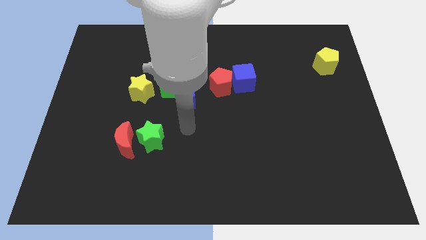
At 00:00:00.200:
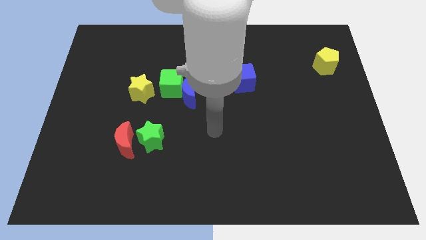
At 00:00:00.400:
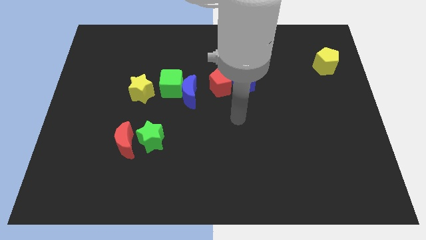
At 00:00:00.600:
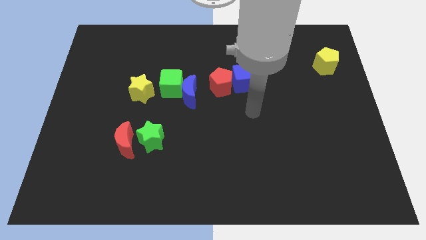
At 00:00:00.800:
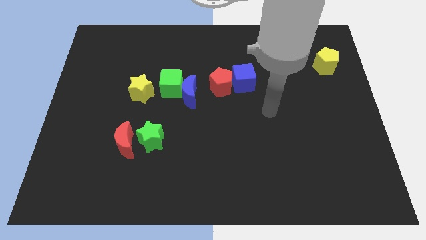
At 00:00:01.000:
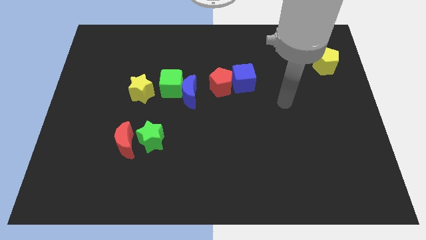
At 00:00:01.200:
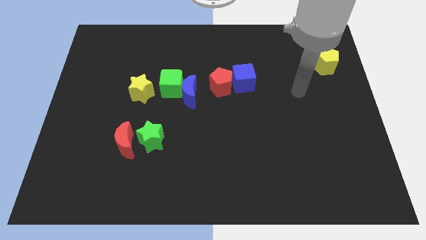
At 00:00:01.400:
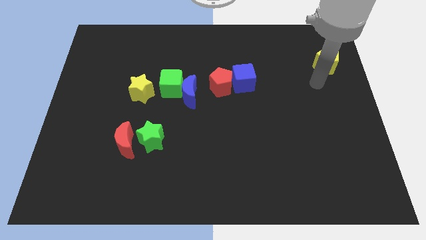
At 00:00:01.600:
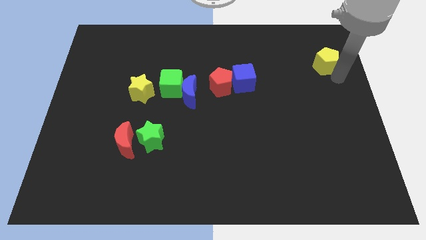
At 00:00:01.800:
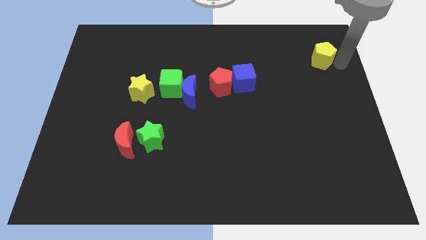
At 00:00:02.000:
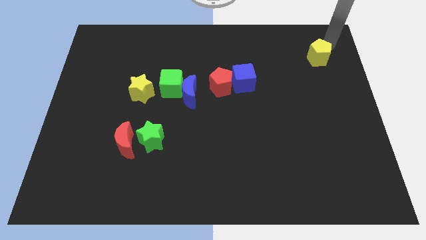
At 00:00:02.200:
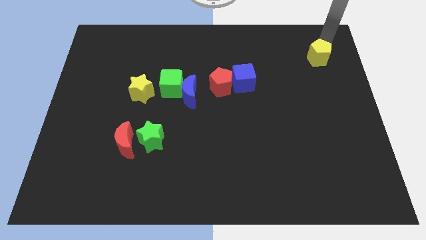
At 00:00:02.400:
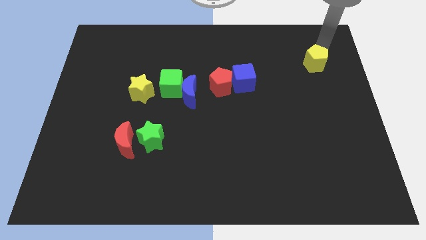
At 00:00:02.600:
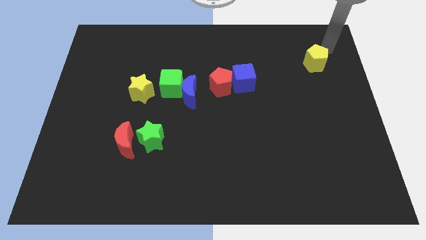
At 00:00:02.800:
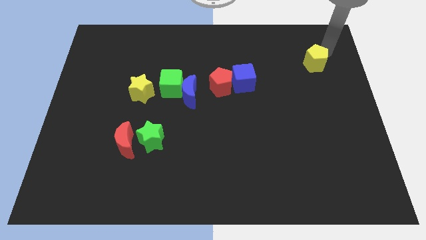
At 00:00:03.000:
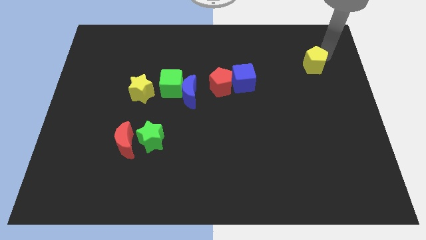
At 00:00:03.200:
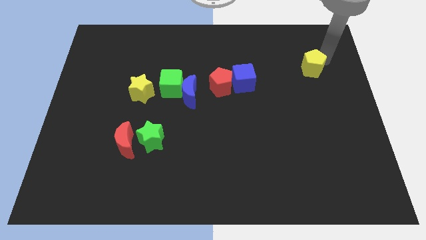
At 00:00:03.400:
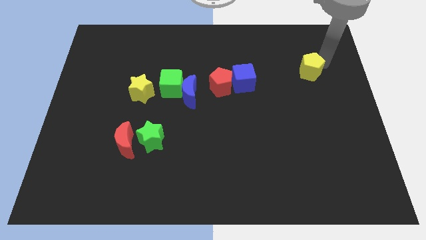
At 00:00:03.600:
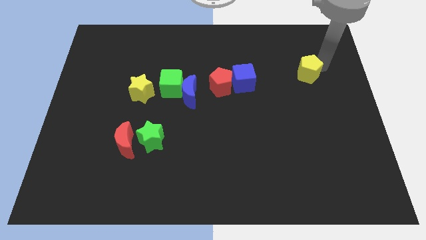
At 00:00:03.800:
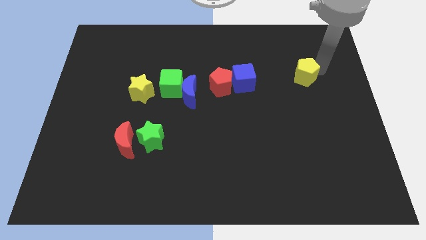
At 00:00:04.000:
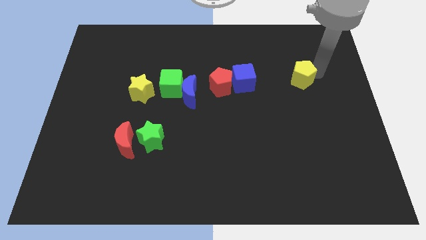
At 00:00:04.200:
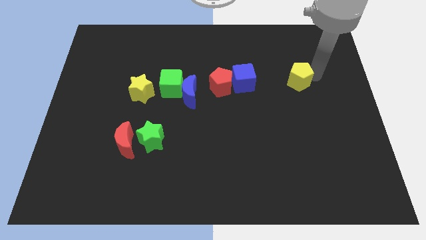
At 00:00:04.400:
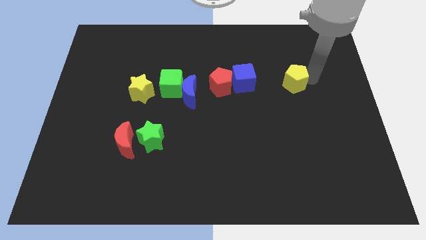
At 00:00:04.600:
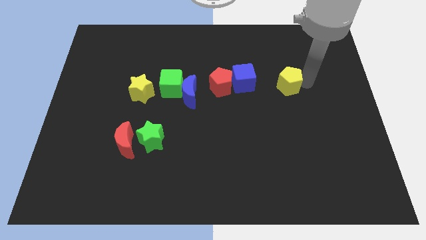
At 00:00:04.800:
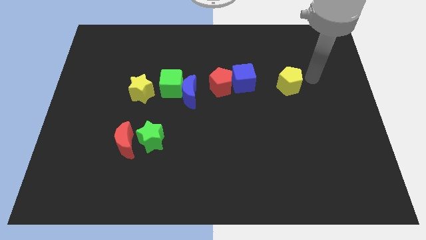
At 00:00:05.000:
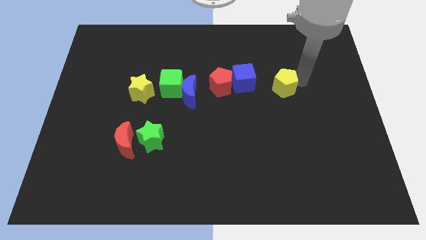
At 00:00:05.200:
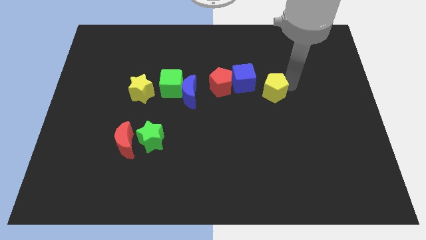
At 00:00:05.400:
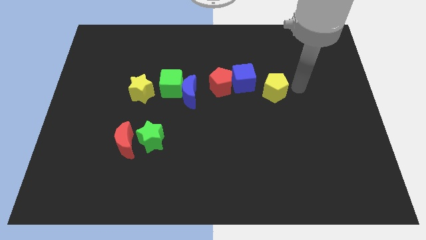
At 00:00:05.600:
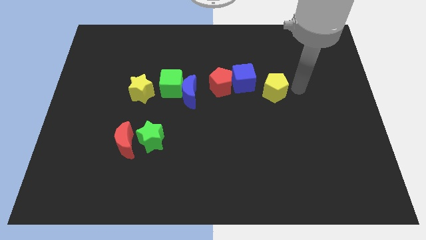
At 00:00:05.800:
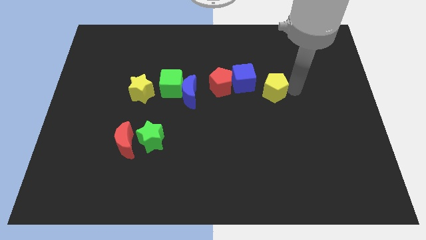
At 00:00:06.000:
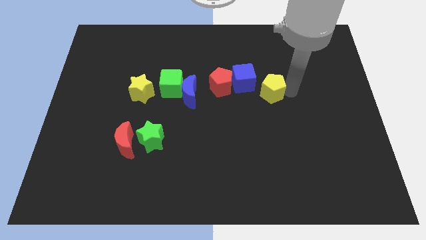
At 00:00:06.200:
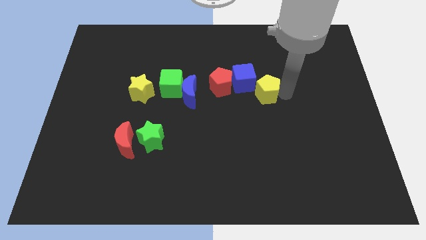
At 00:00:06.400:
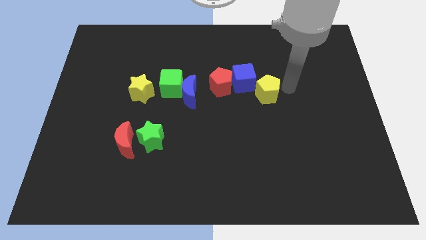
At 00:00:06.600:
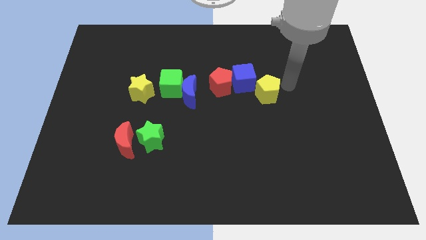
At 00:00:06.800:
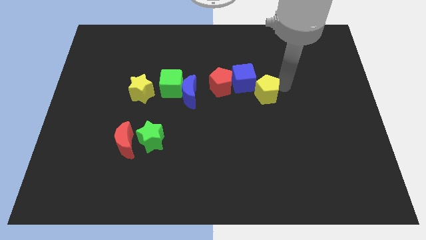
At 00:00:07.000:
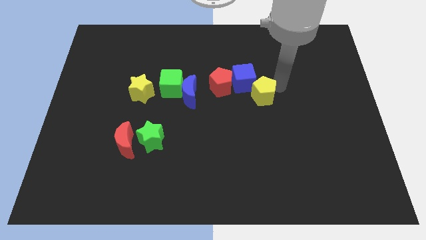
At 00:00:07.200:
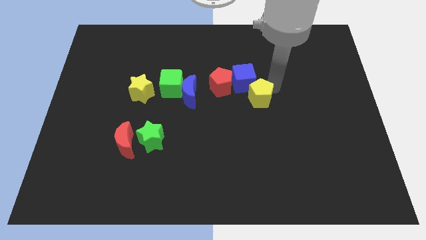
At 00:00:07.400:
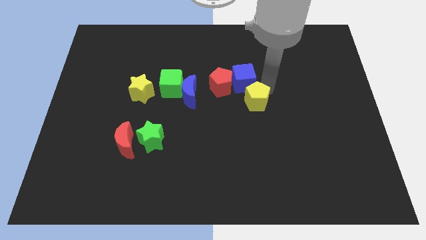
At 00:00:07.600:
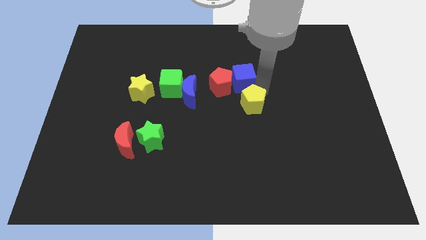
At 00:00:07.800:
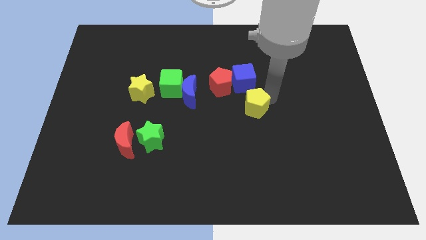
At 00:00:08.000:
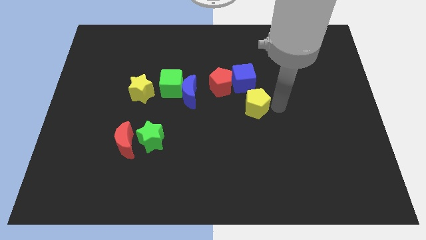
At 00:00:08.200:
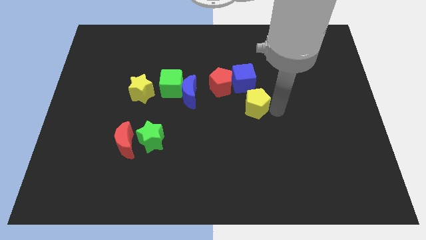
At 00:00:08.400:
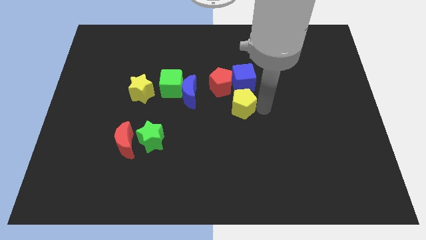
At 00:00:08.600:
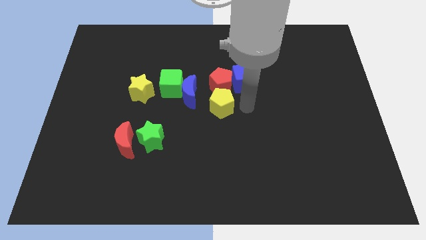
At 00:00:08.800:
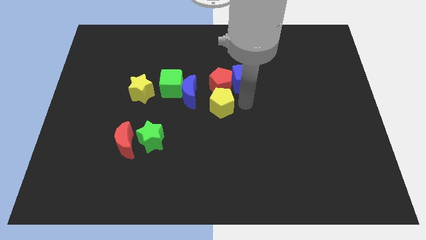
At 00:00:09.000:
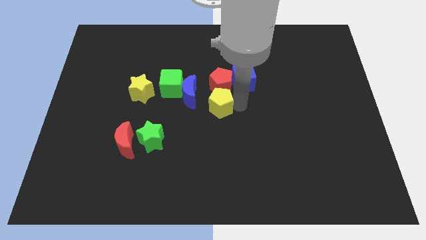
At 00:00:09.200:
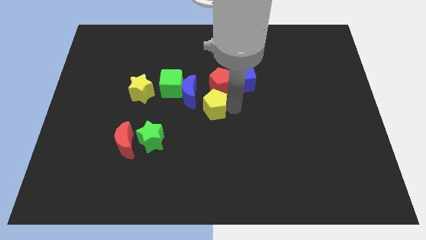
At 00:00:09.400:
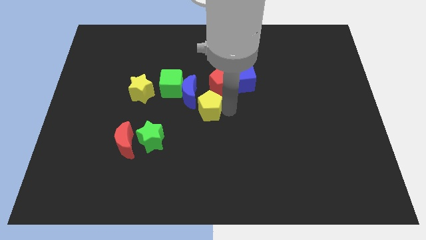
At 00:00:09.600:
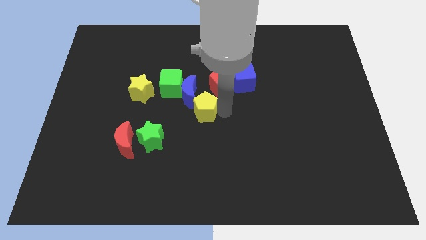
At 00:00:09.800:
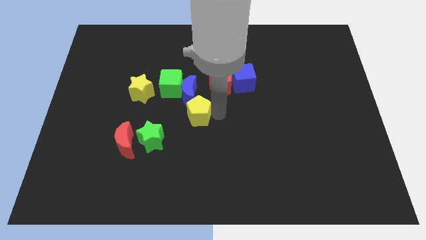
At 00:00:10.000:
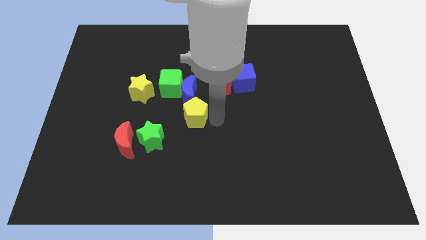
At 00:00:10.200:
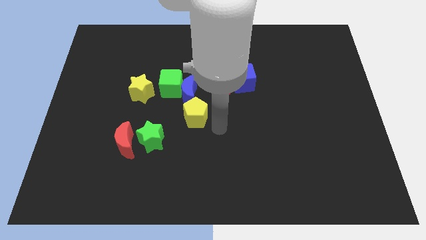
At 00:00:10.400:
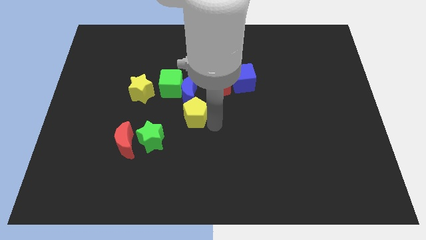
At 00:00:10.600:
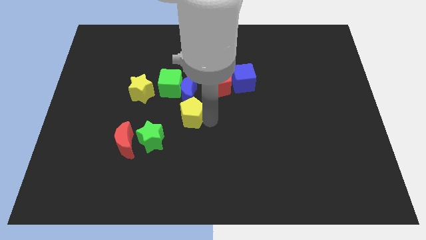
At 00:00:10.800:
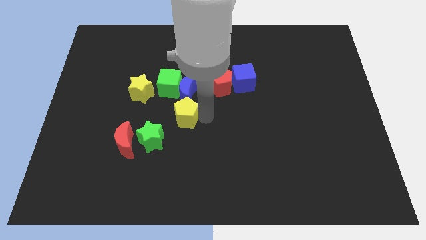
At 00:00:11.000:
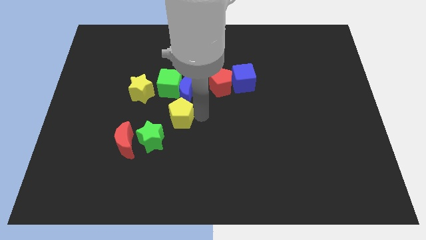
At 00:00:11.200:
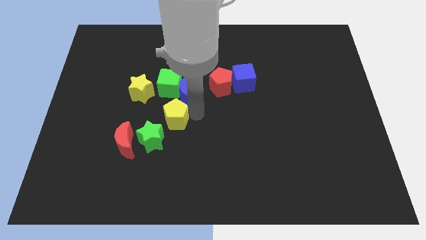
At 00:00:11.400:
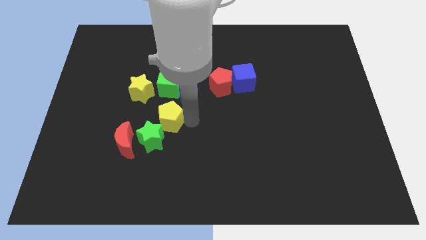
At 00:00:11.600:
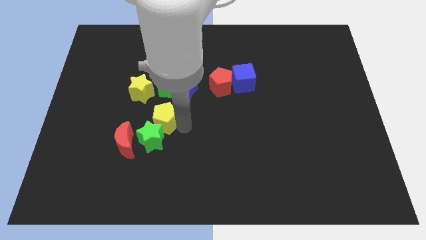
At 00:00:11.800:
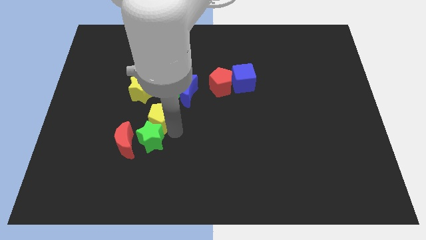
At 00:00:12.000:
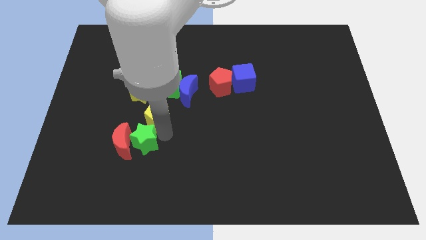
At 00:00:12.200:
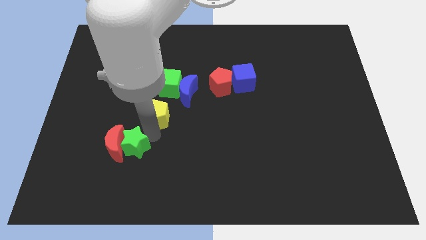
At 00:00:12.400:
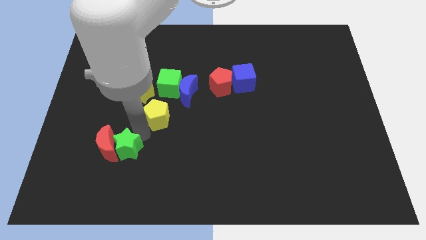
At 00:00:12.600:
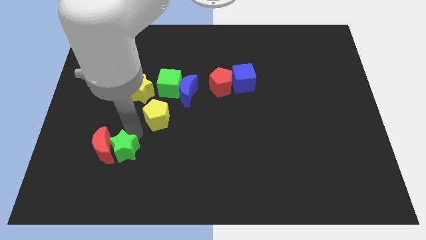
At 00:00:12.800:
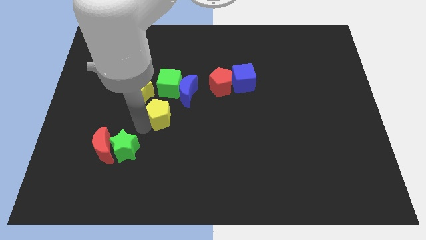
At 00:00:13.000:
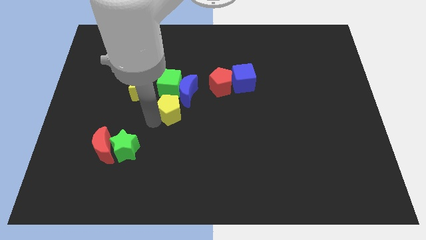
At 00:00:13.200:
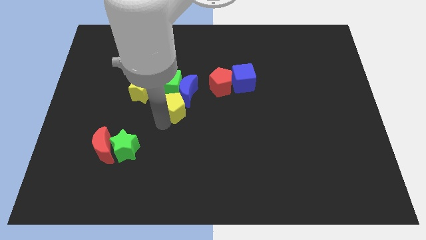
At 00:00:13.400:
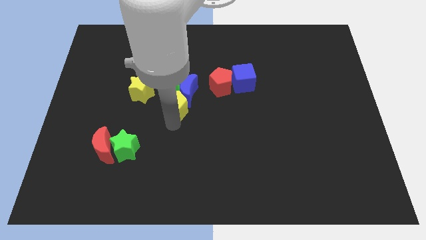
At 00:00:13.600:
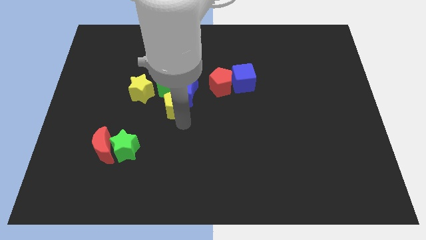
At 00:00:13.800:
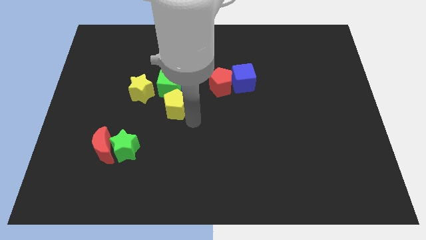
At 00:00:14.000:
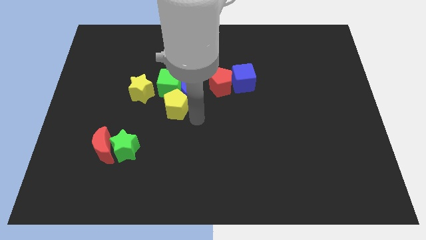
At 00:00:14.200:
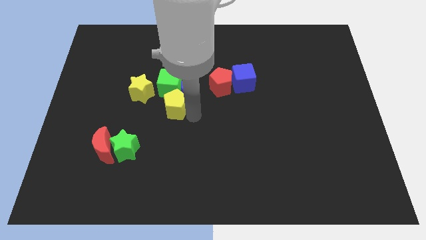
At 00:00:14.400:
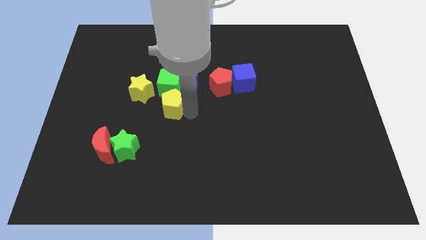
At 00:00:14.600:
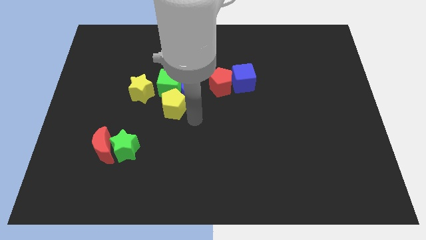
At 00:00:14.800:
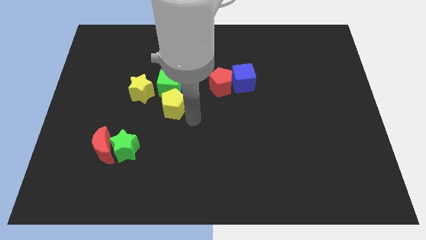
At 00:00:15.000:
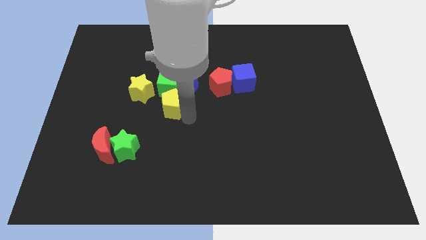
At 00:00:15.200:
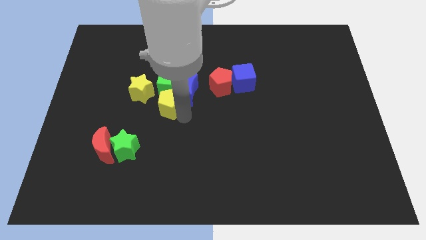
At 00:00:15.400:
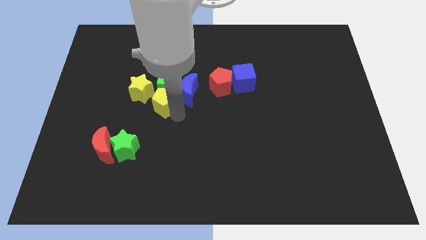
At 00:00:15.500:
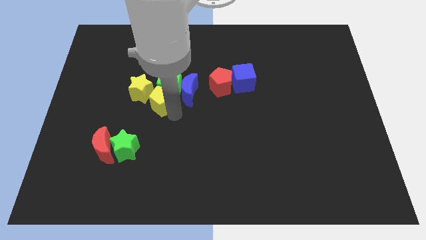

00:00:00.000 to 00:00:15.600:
slide the yellow pentagon to the yellow star
